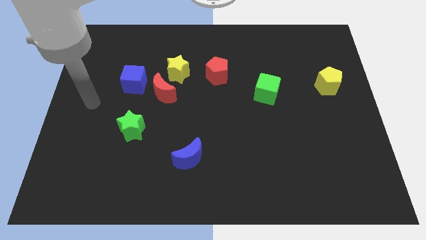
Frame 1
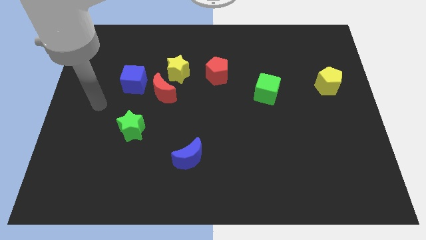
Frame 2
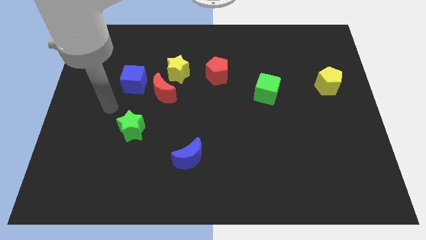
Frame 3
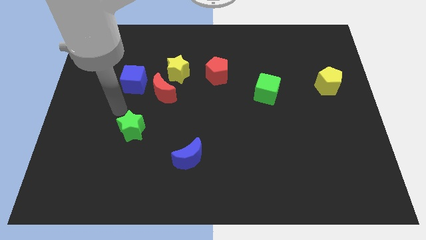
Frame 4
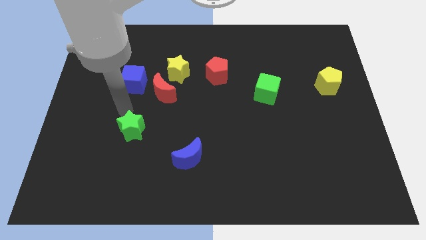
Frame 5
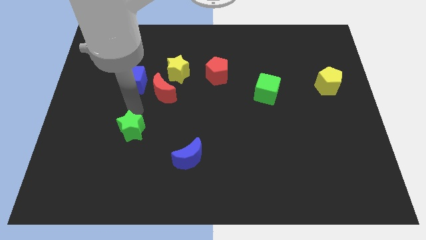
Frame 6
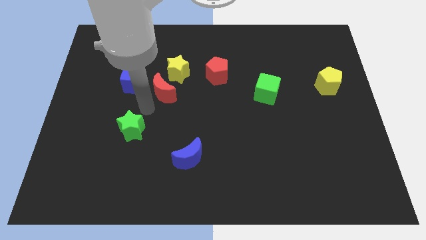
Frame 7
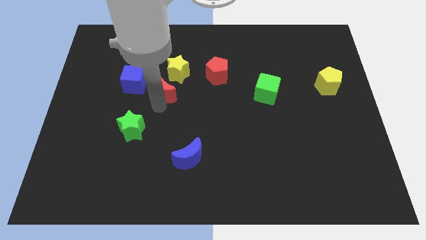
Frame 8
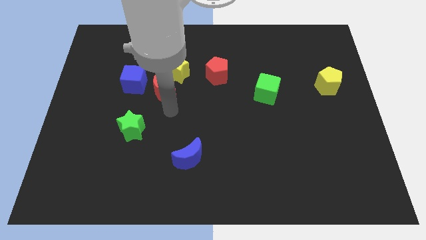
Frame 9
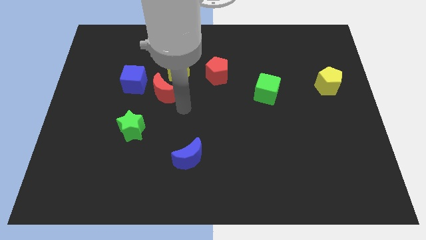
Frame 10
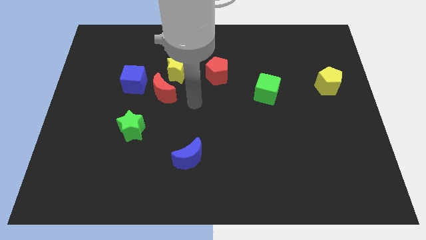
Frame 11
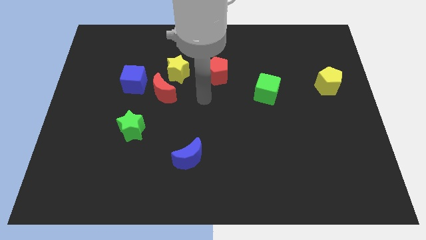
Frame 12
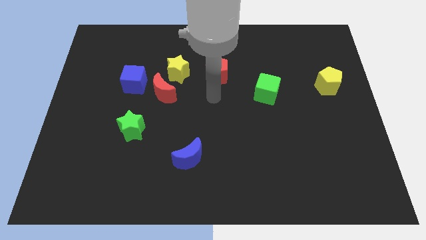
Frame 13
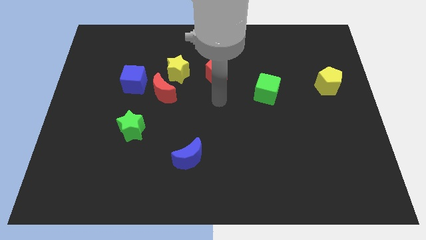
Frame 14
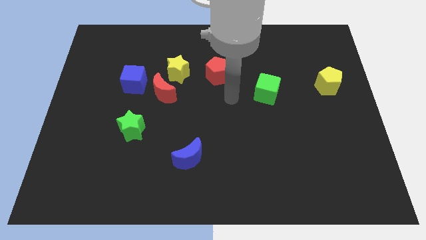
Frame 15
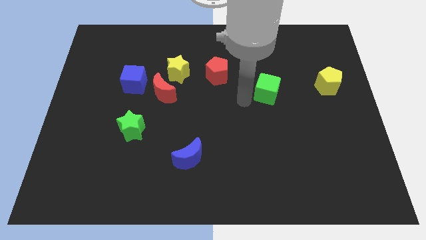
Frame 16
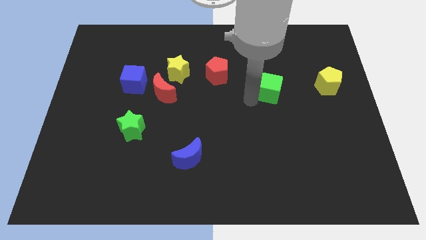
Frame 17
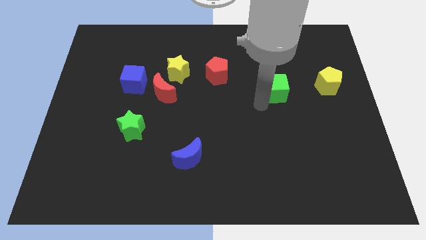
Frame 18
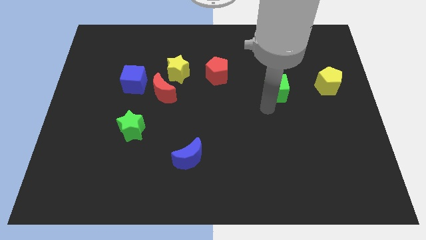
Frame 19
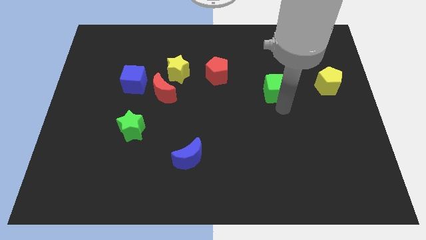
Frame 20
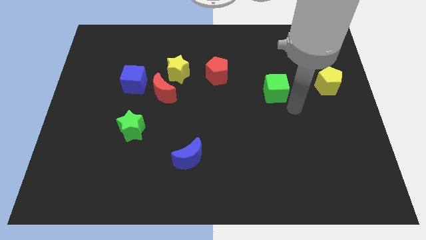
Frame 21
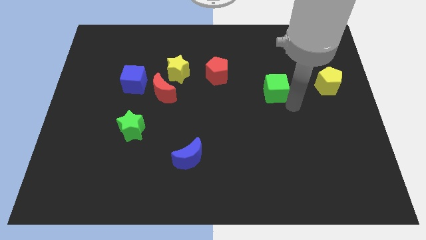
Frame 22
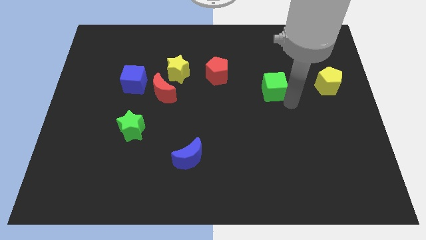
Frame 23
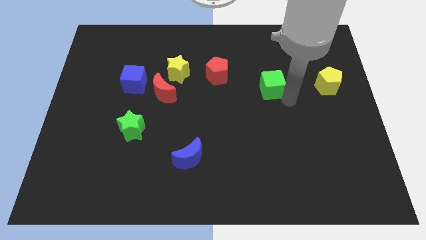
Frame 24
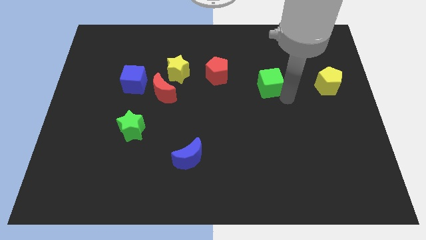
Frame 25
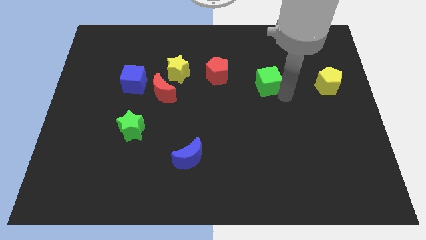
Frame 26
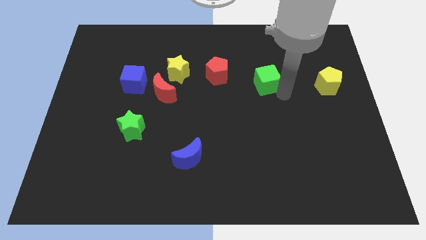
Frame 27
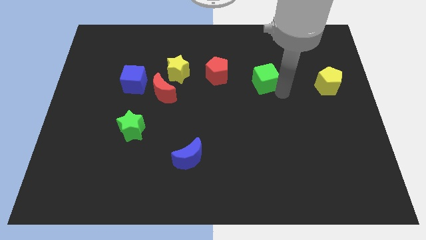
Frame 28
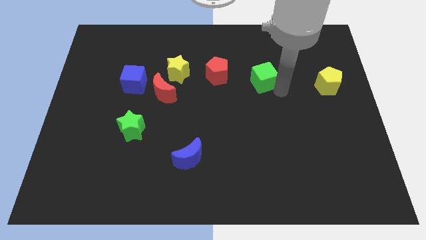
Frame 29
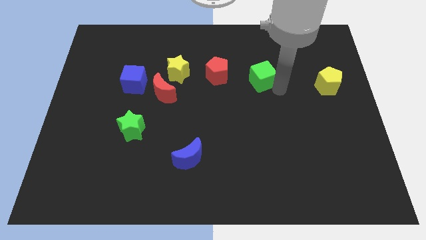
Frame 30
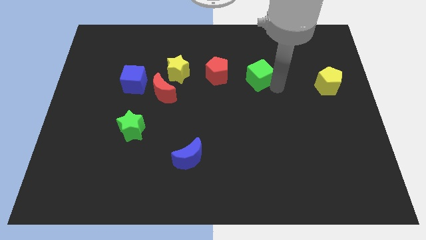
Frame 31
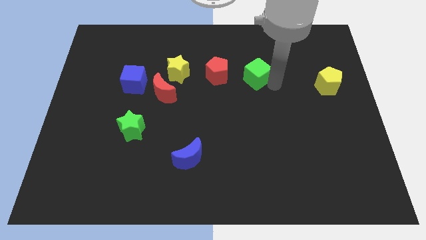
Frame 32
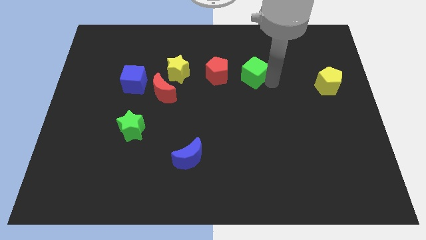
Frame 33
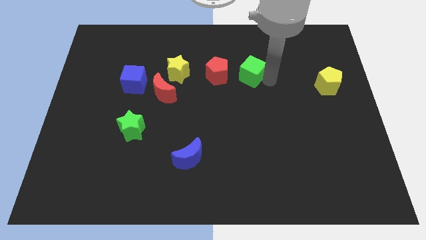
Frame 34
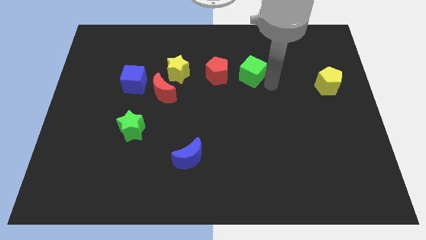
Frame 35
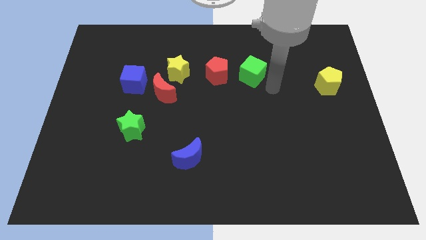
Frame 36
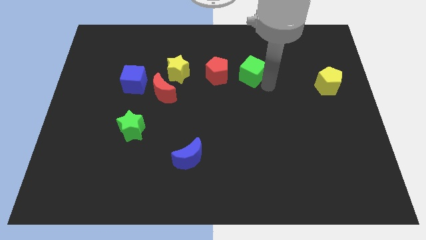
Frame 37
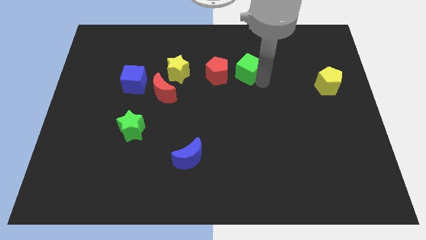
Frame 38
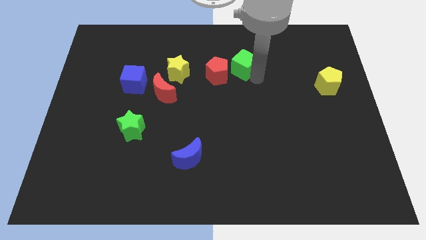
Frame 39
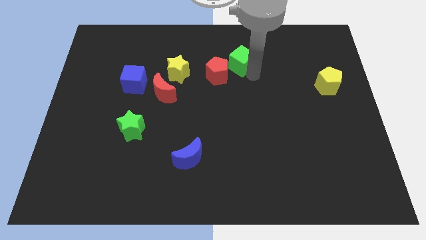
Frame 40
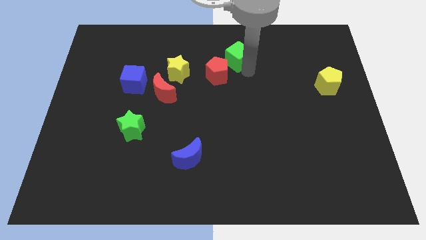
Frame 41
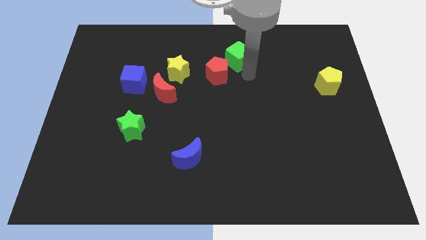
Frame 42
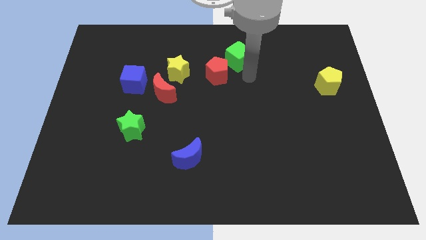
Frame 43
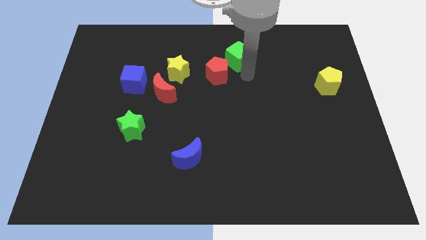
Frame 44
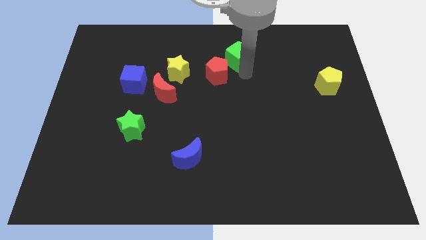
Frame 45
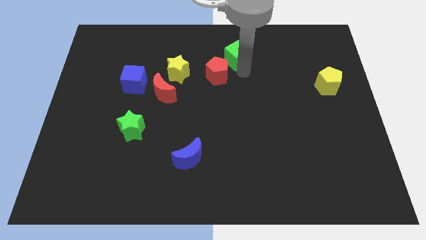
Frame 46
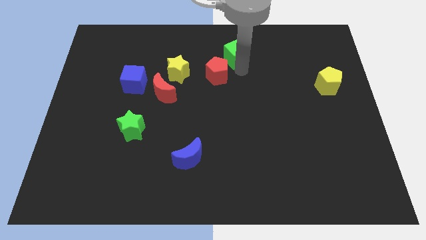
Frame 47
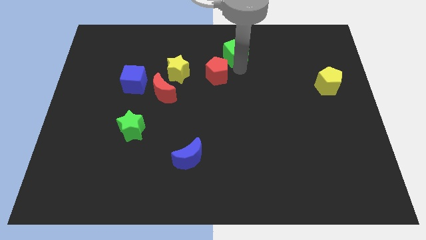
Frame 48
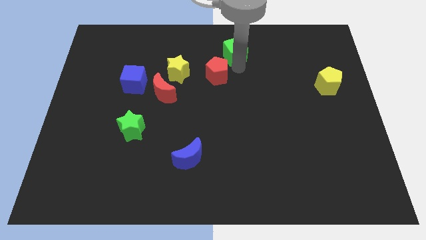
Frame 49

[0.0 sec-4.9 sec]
slide the green cube to the top

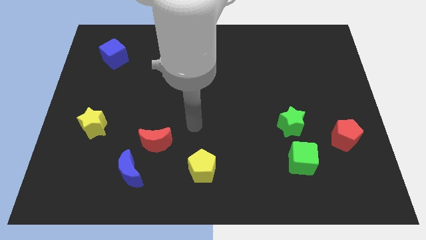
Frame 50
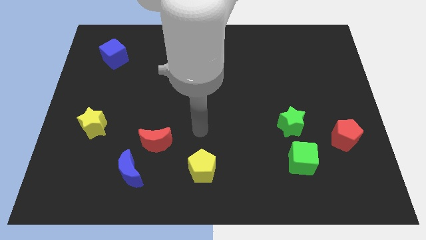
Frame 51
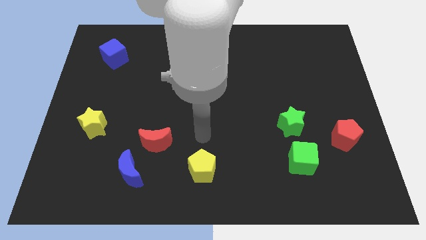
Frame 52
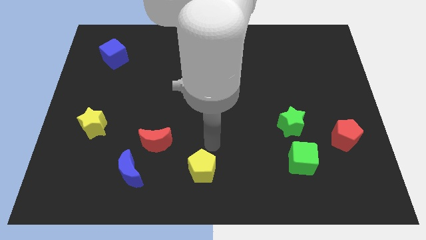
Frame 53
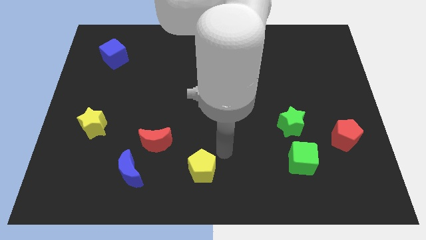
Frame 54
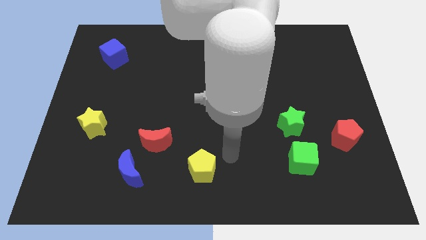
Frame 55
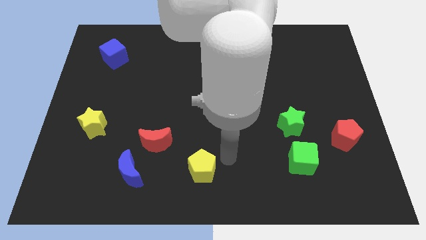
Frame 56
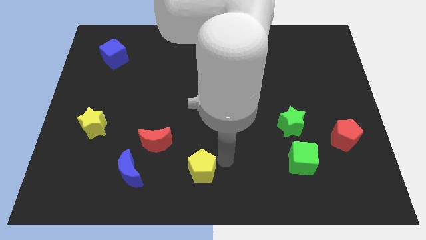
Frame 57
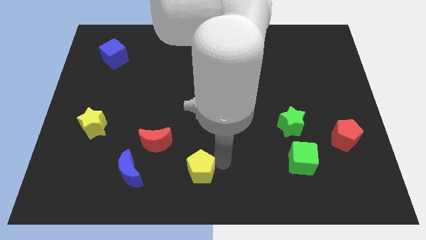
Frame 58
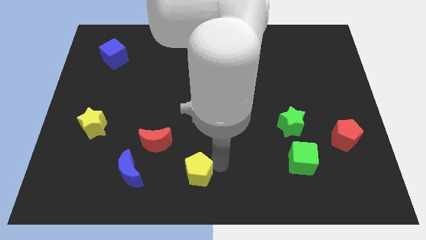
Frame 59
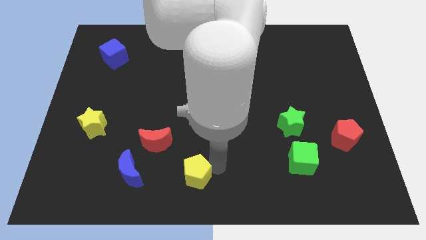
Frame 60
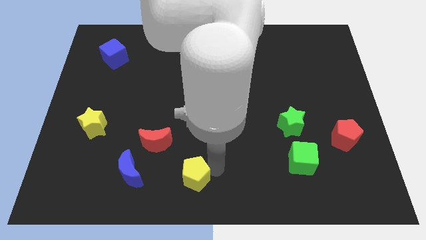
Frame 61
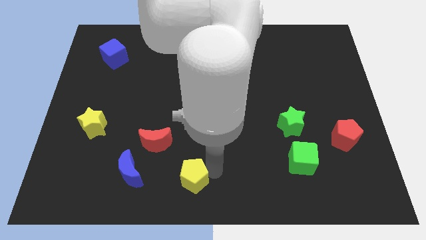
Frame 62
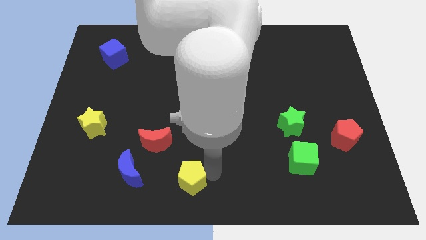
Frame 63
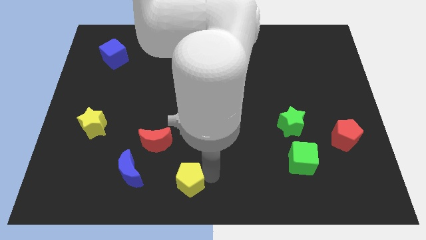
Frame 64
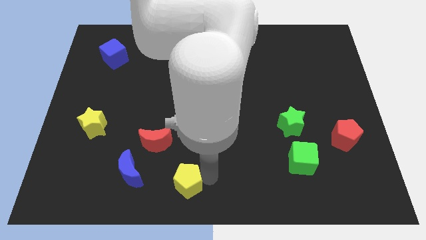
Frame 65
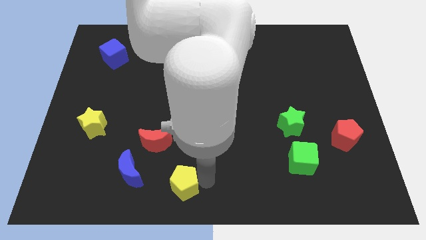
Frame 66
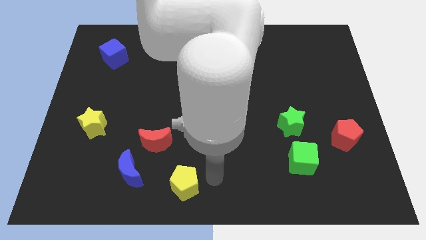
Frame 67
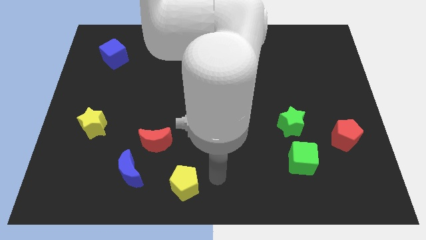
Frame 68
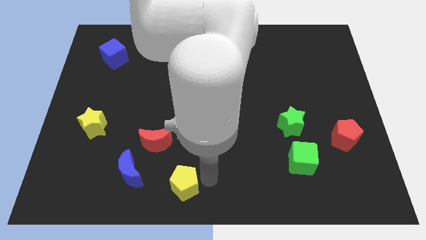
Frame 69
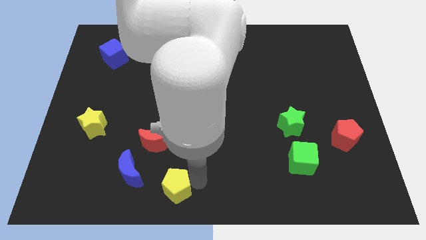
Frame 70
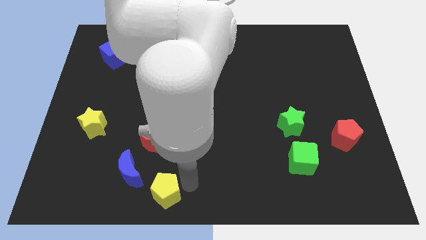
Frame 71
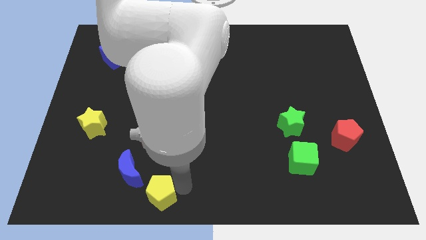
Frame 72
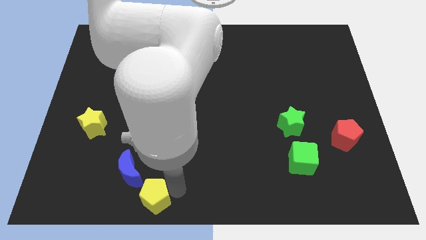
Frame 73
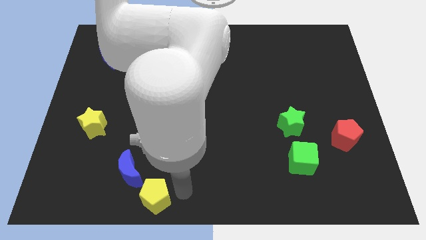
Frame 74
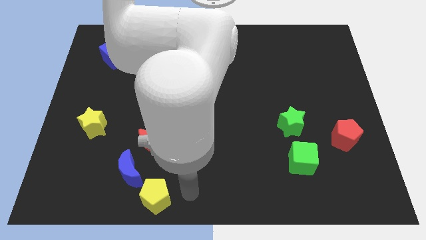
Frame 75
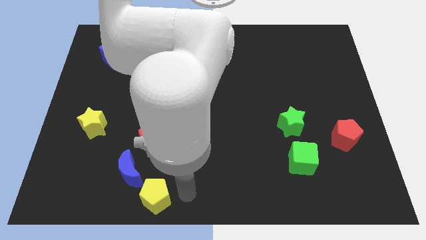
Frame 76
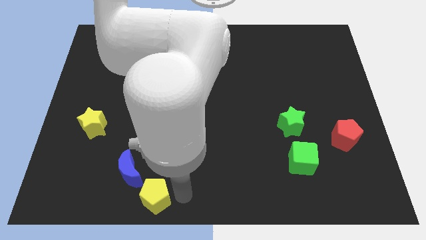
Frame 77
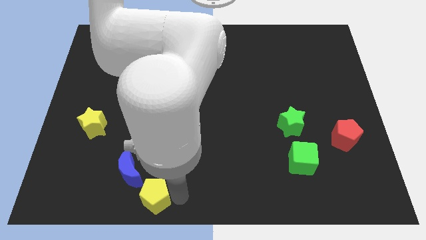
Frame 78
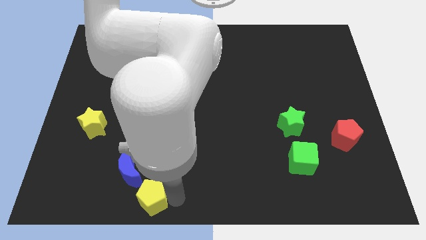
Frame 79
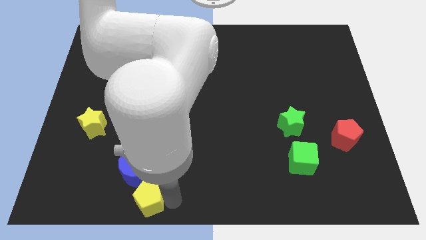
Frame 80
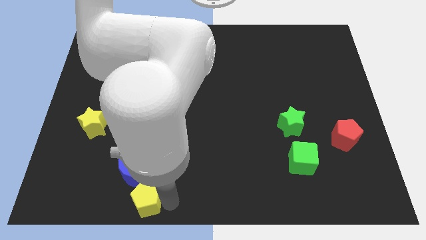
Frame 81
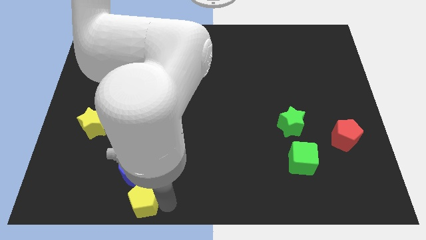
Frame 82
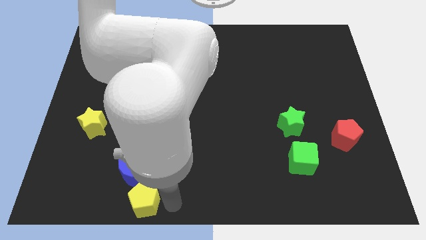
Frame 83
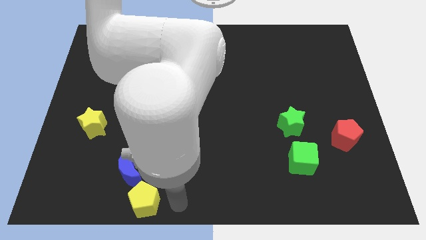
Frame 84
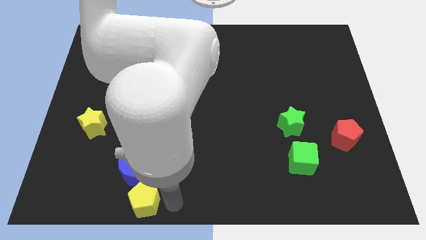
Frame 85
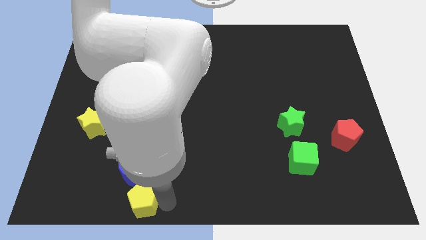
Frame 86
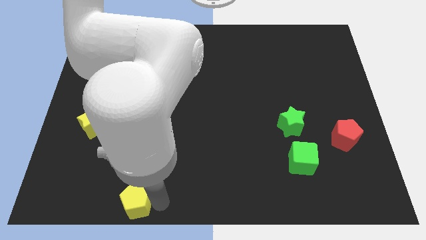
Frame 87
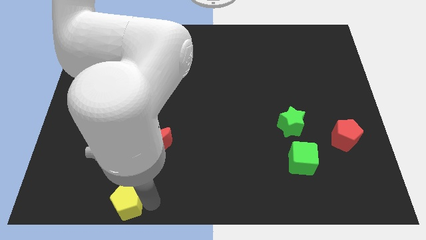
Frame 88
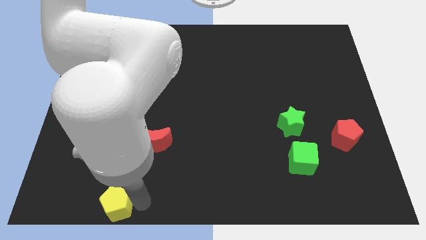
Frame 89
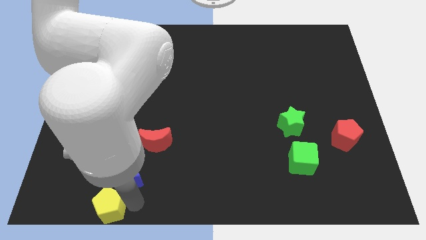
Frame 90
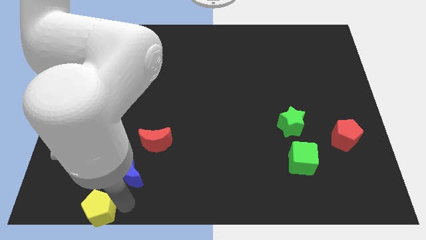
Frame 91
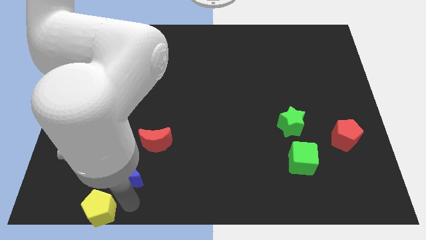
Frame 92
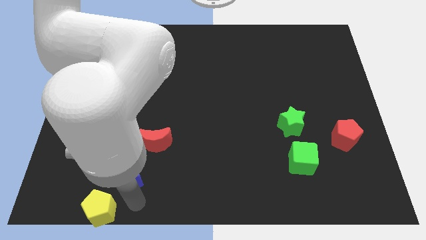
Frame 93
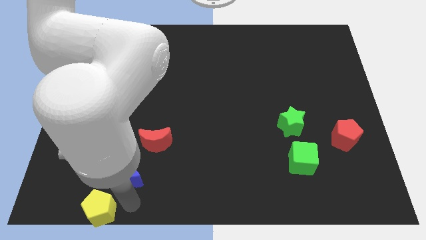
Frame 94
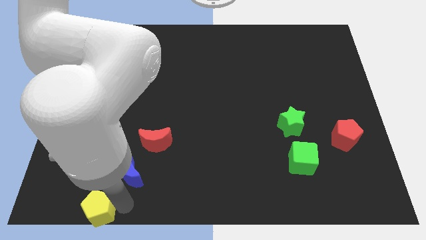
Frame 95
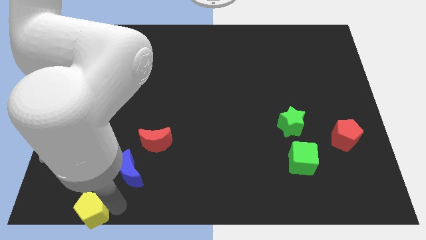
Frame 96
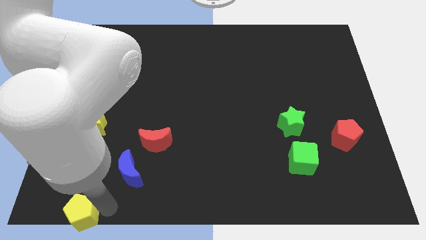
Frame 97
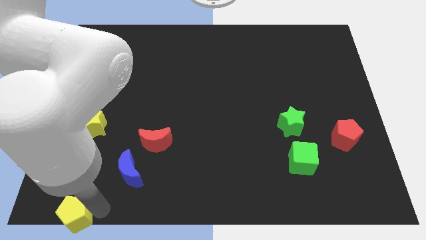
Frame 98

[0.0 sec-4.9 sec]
move the yellow pentagon to the bottom left corner
